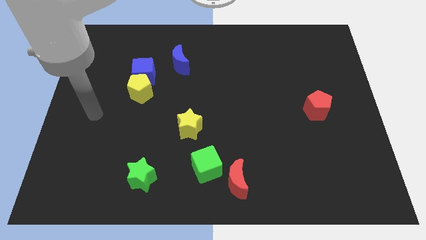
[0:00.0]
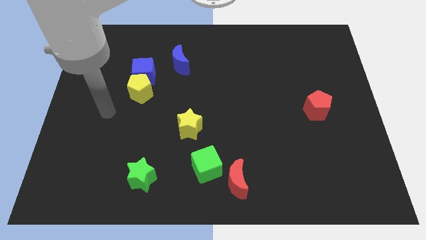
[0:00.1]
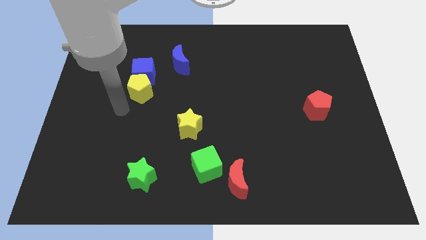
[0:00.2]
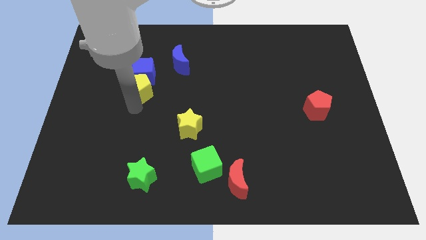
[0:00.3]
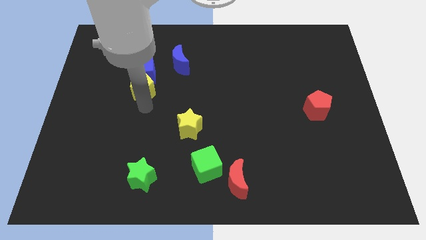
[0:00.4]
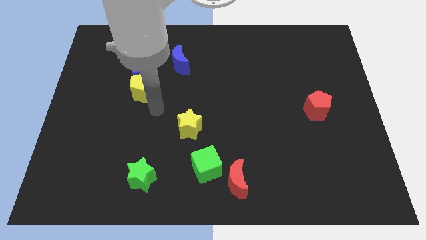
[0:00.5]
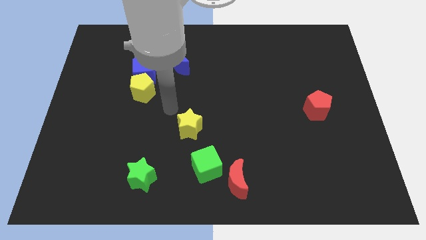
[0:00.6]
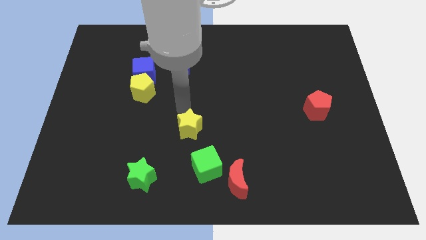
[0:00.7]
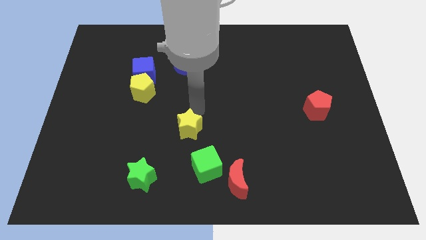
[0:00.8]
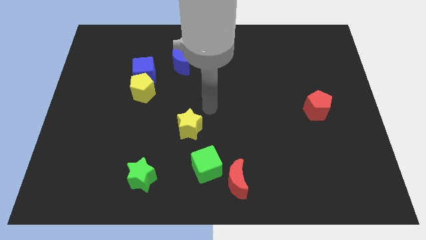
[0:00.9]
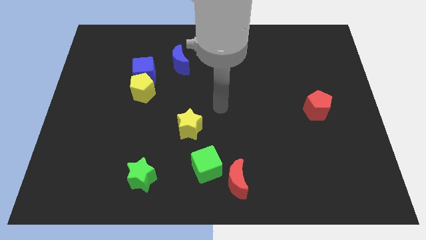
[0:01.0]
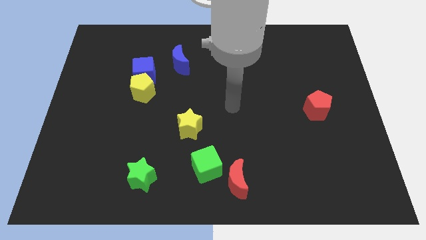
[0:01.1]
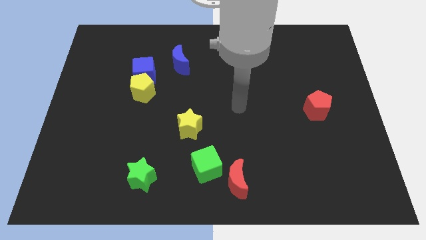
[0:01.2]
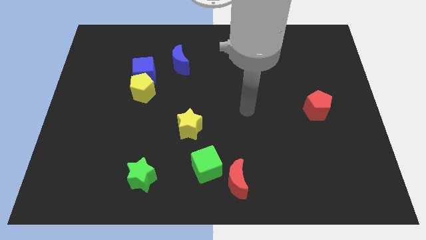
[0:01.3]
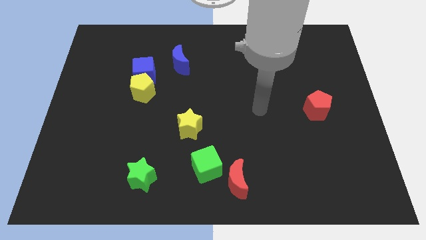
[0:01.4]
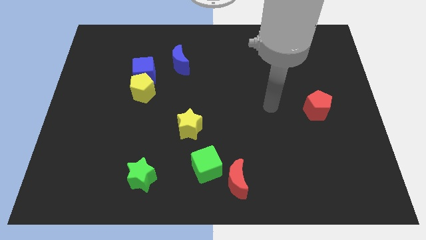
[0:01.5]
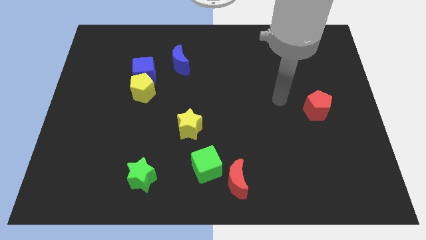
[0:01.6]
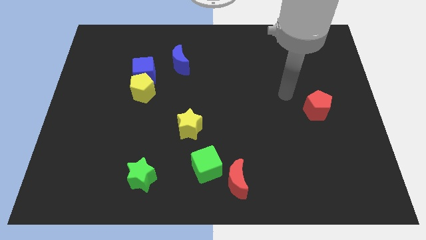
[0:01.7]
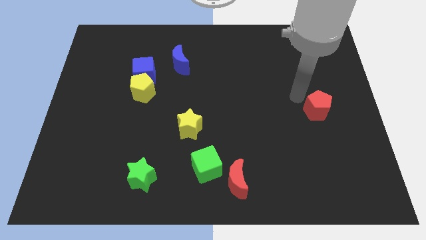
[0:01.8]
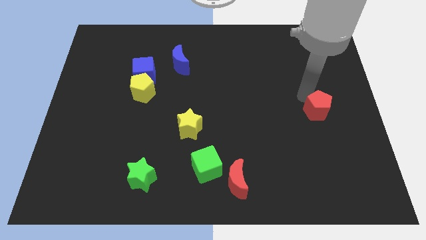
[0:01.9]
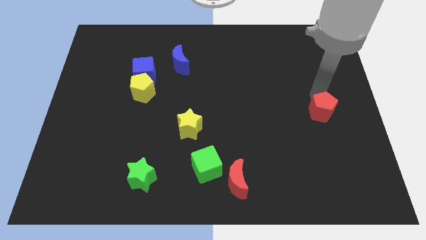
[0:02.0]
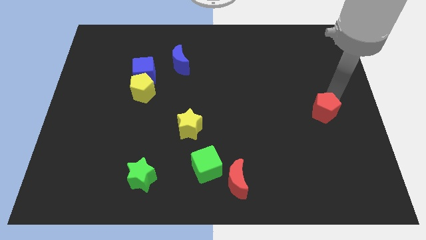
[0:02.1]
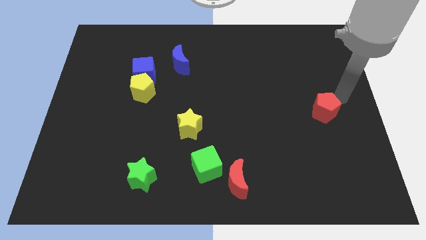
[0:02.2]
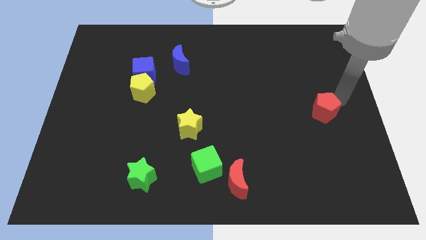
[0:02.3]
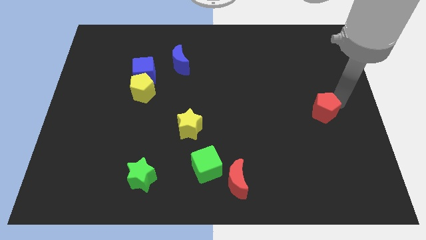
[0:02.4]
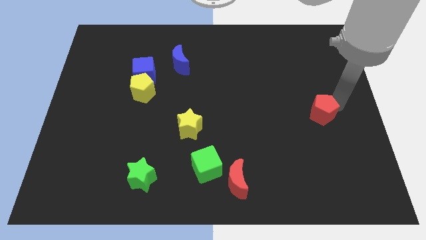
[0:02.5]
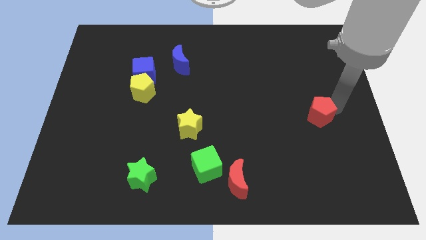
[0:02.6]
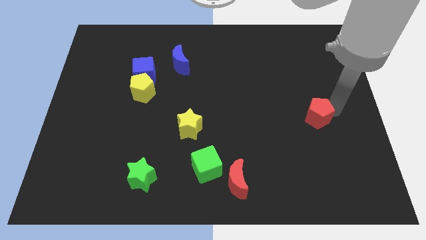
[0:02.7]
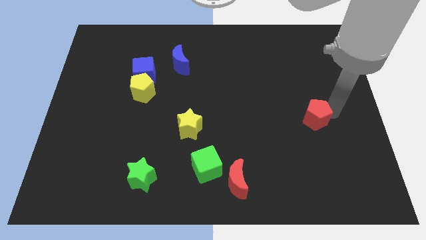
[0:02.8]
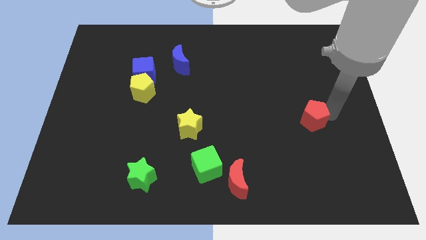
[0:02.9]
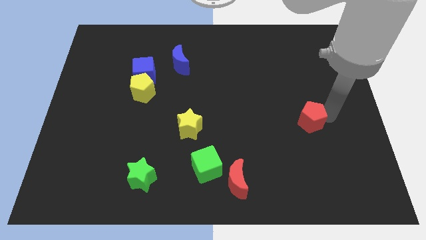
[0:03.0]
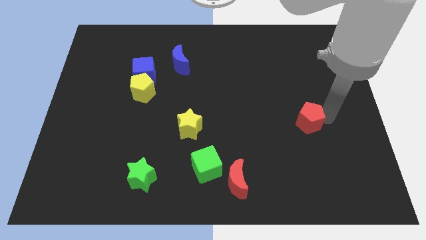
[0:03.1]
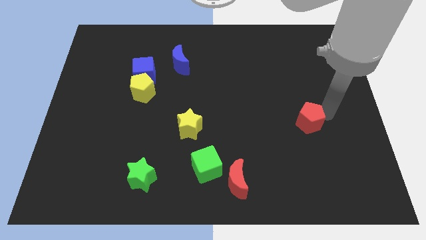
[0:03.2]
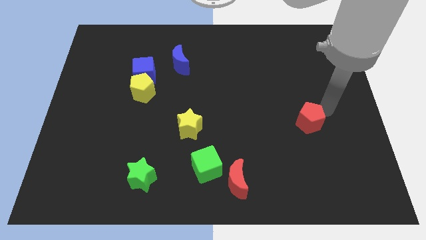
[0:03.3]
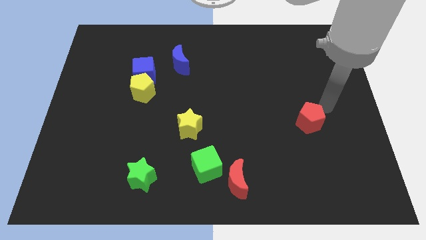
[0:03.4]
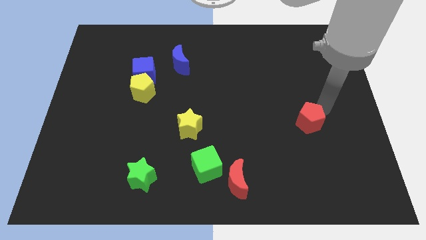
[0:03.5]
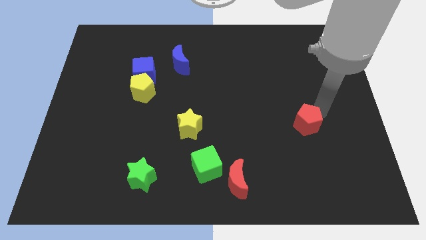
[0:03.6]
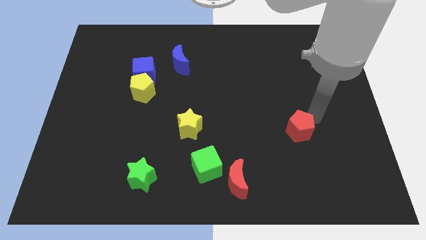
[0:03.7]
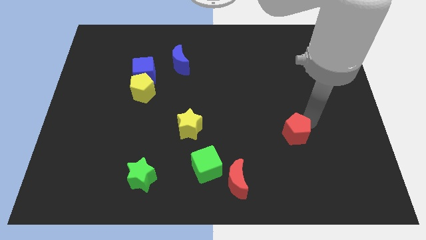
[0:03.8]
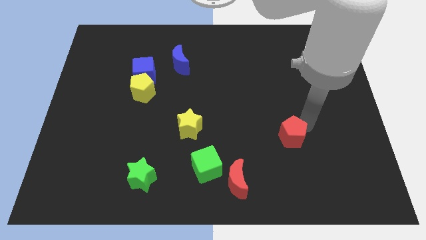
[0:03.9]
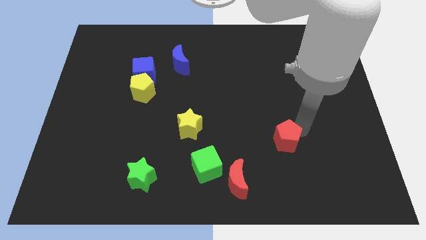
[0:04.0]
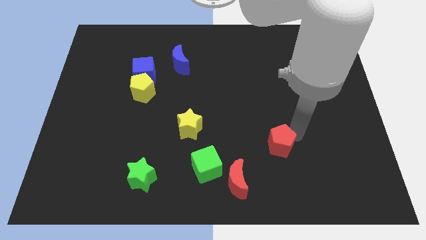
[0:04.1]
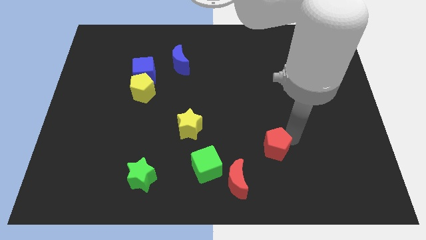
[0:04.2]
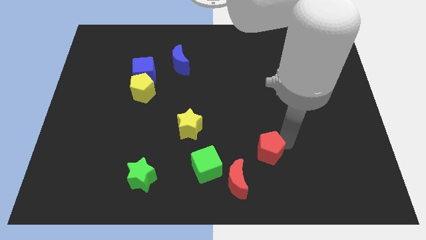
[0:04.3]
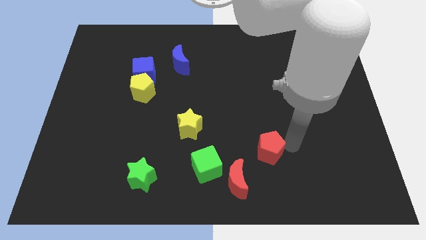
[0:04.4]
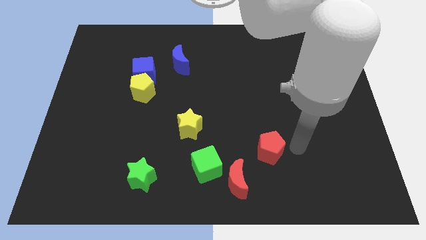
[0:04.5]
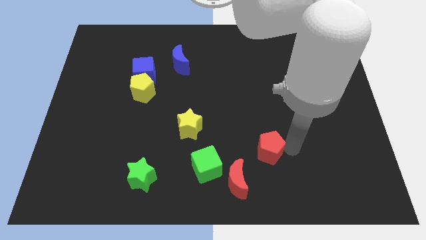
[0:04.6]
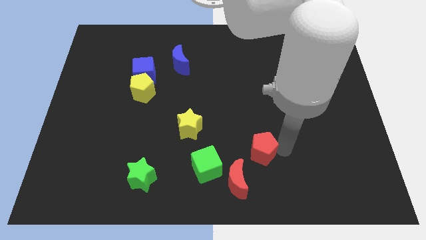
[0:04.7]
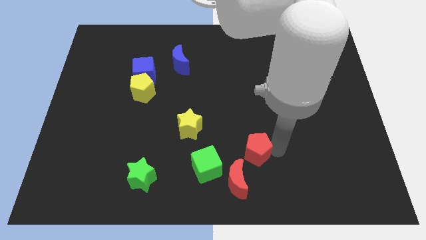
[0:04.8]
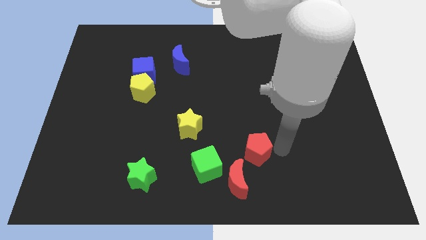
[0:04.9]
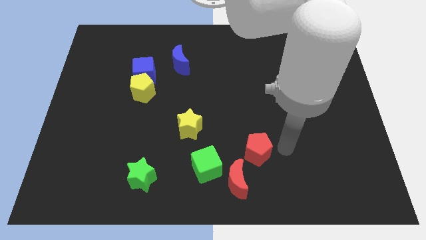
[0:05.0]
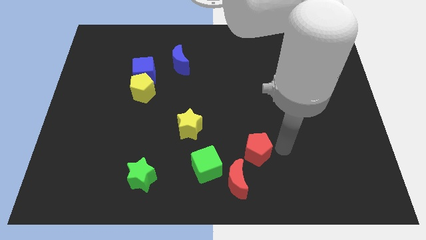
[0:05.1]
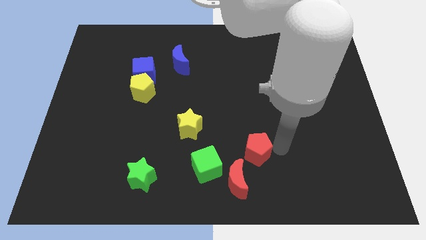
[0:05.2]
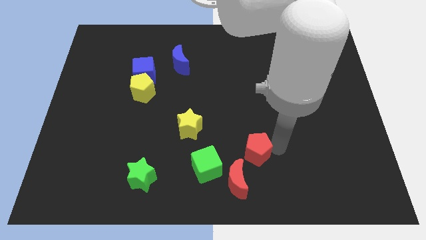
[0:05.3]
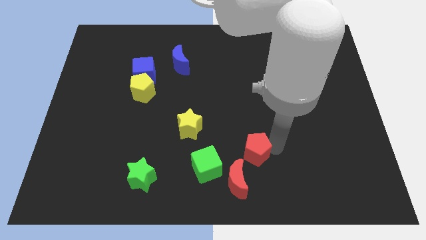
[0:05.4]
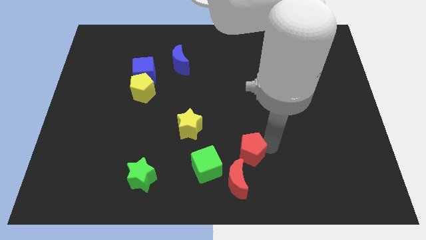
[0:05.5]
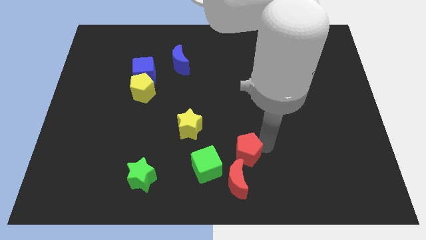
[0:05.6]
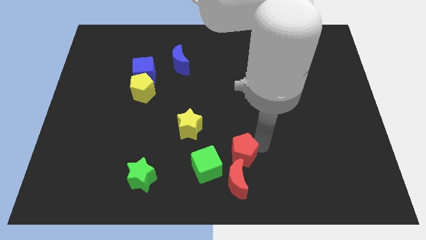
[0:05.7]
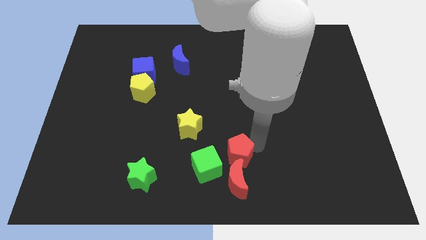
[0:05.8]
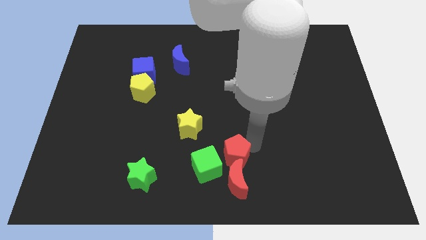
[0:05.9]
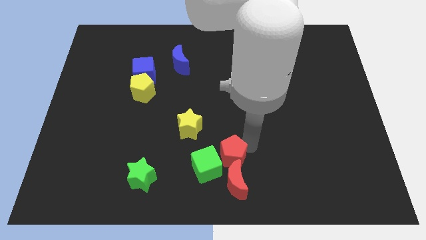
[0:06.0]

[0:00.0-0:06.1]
put the red pentagon to the green cube

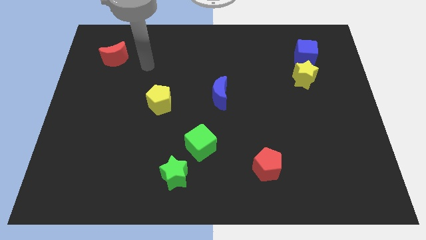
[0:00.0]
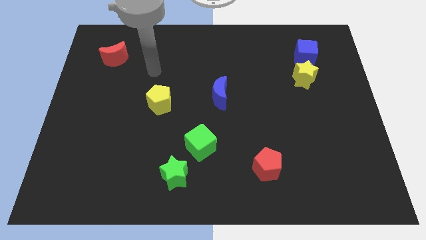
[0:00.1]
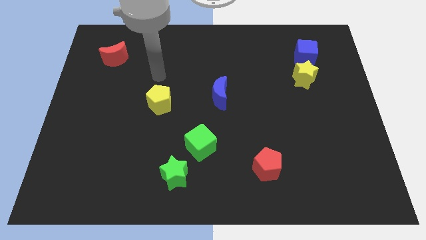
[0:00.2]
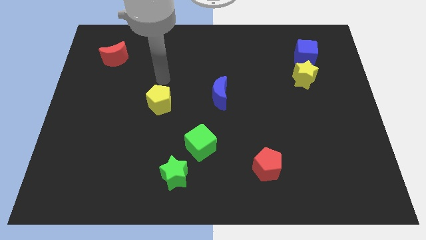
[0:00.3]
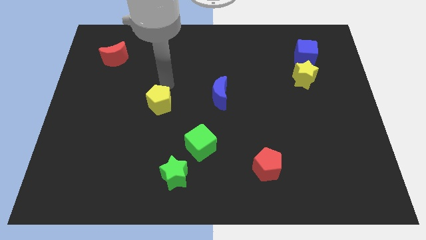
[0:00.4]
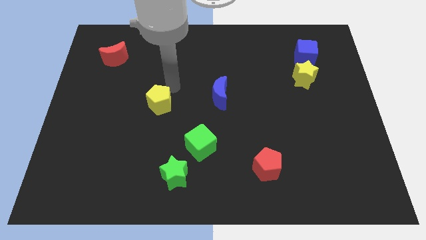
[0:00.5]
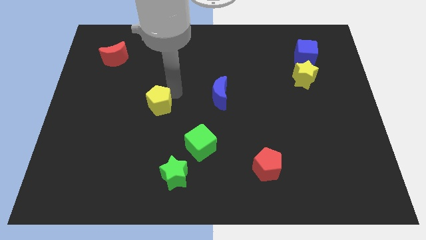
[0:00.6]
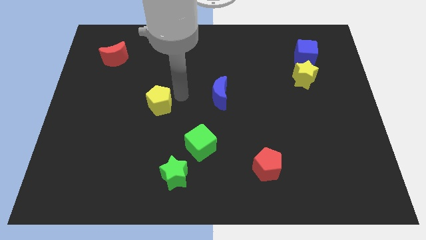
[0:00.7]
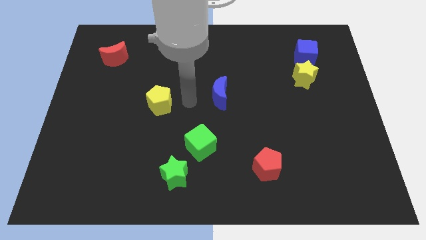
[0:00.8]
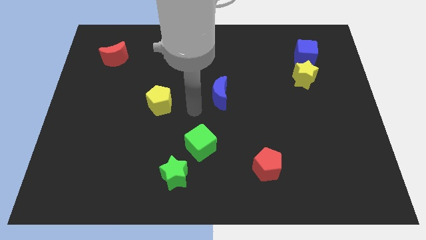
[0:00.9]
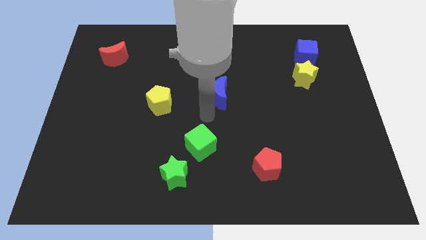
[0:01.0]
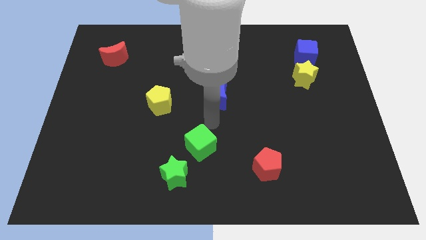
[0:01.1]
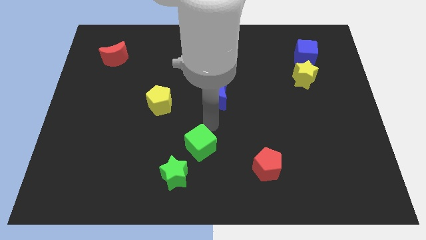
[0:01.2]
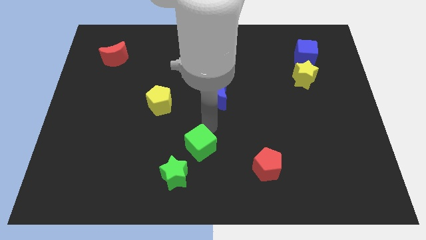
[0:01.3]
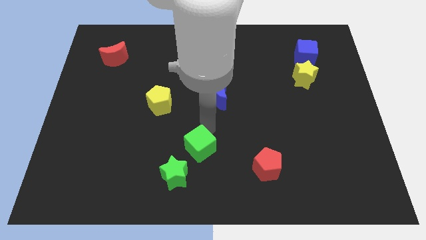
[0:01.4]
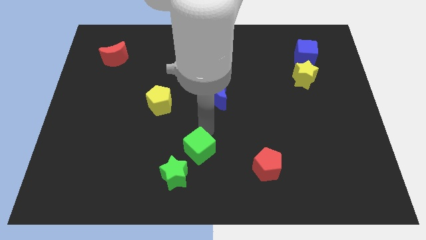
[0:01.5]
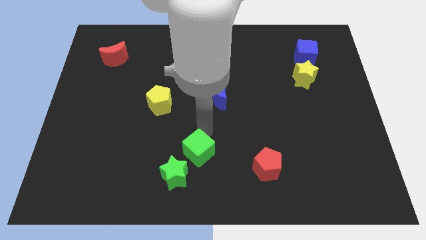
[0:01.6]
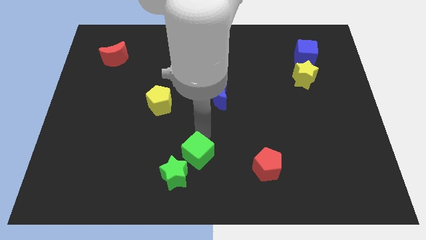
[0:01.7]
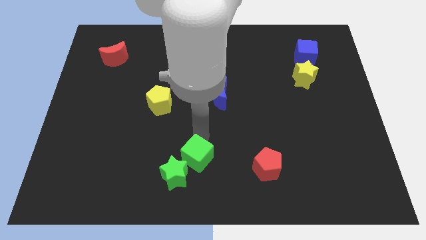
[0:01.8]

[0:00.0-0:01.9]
put the green cube close to the green star
